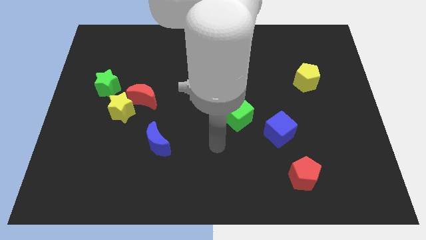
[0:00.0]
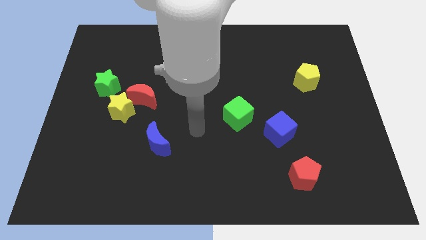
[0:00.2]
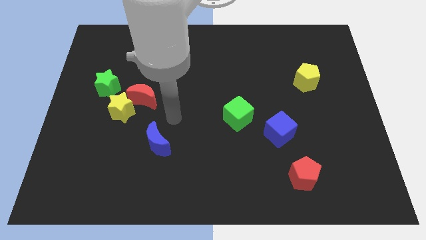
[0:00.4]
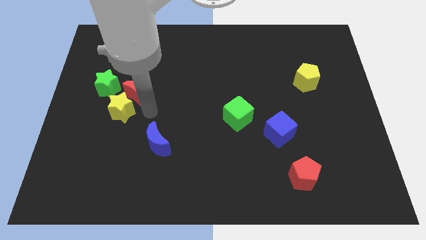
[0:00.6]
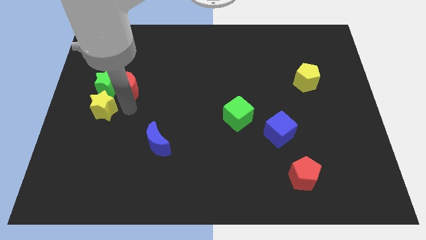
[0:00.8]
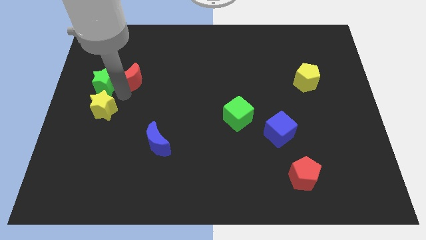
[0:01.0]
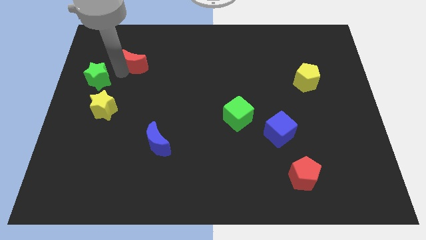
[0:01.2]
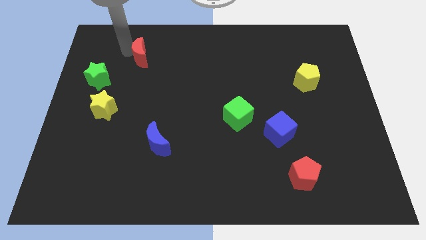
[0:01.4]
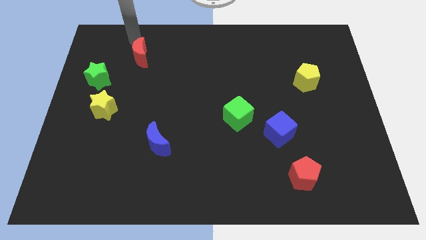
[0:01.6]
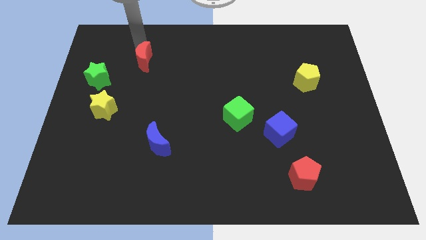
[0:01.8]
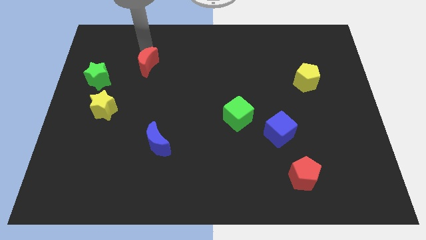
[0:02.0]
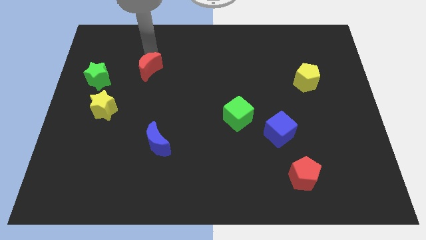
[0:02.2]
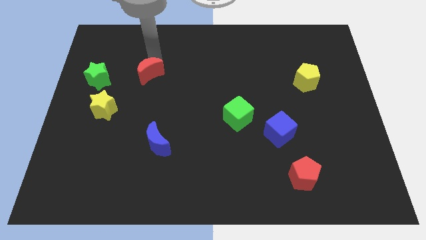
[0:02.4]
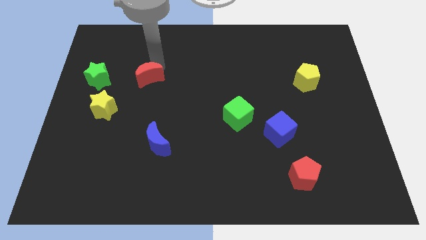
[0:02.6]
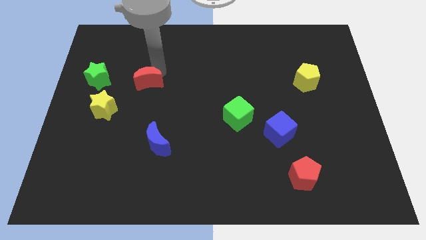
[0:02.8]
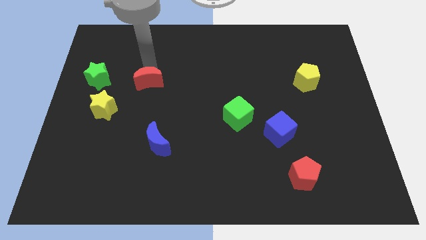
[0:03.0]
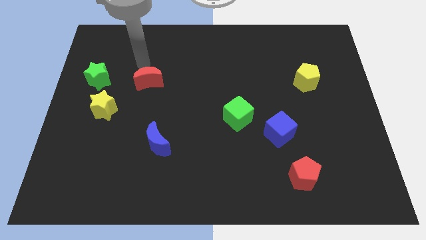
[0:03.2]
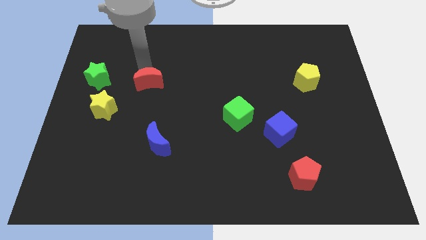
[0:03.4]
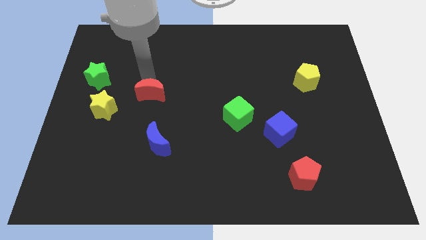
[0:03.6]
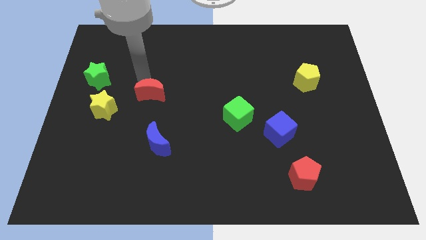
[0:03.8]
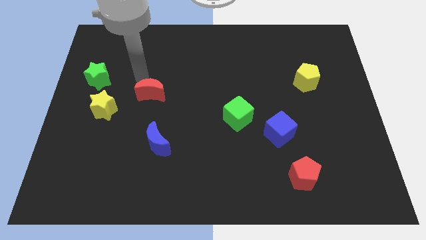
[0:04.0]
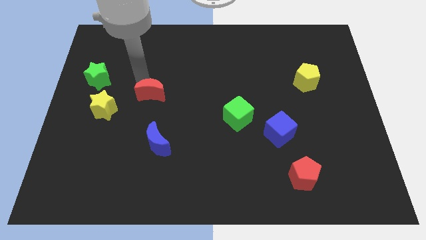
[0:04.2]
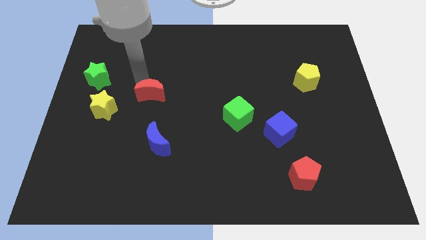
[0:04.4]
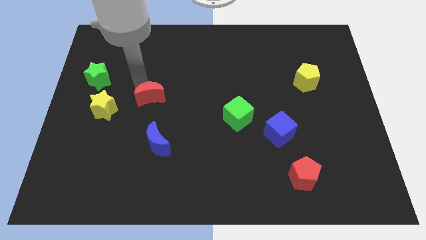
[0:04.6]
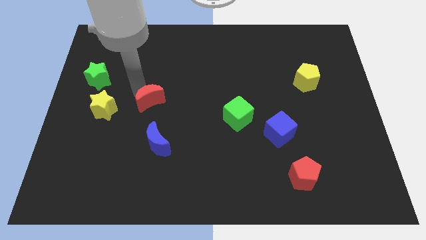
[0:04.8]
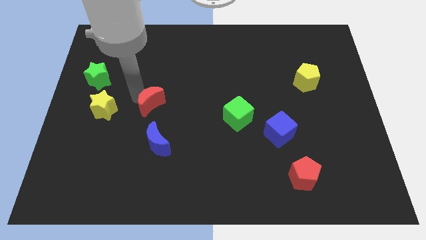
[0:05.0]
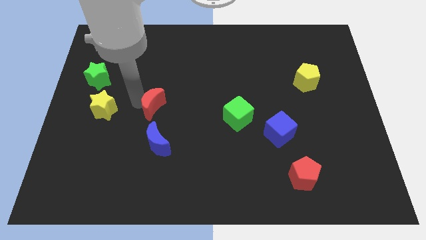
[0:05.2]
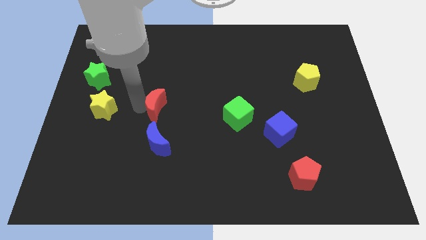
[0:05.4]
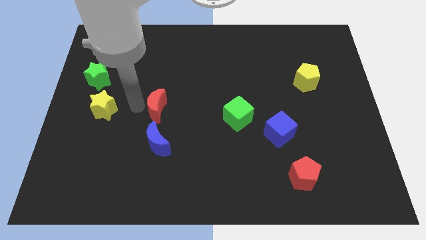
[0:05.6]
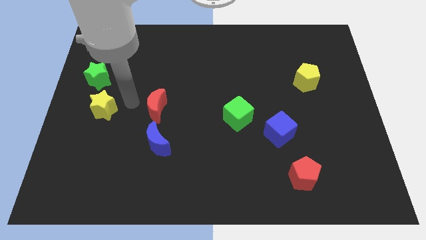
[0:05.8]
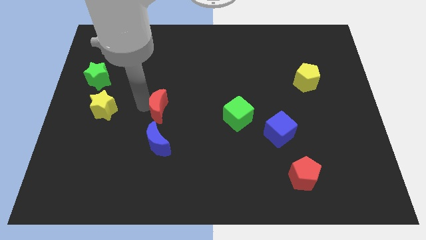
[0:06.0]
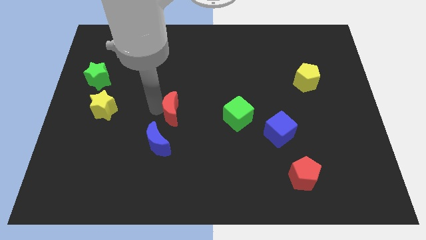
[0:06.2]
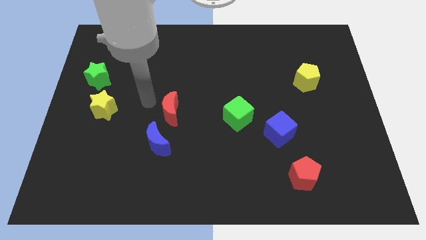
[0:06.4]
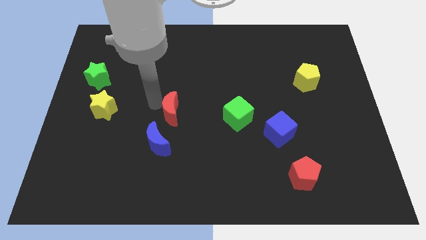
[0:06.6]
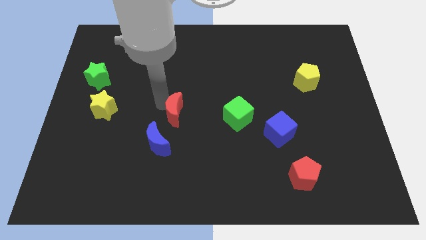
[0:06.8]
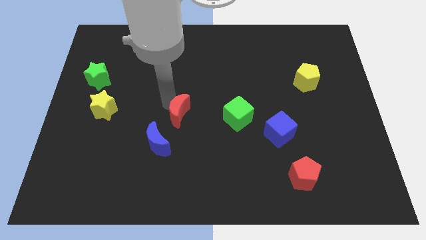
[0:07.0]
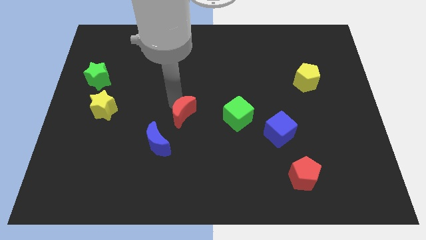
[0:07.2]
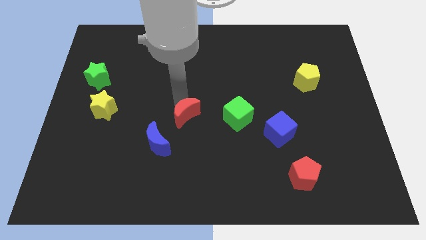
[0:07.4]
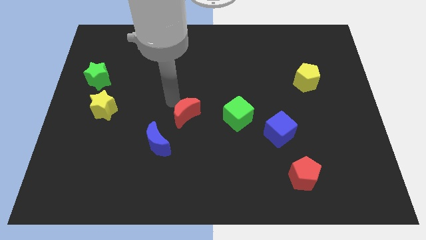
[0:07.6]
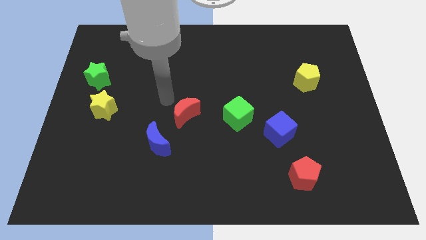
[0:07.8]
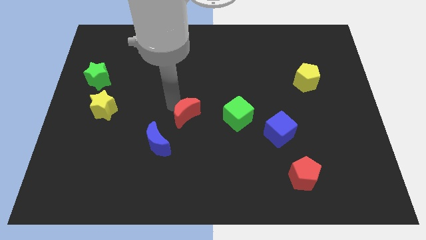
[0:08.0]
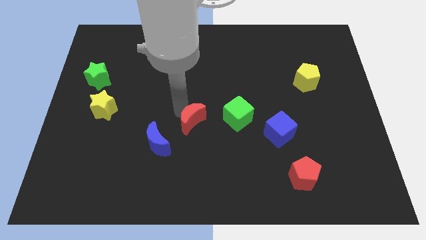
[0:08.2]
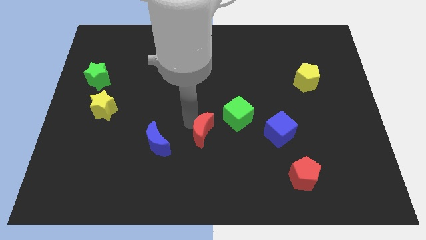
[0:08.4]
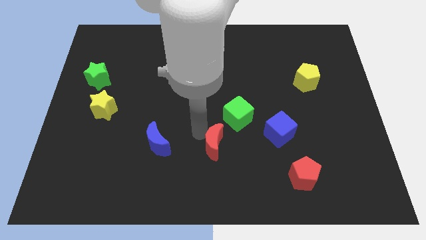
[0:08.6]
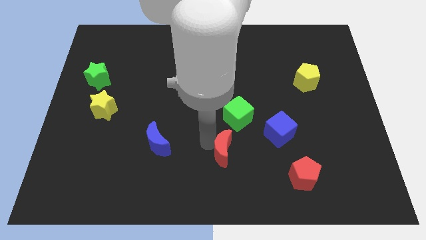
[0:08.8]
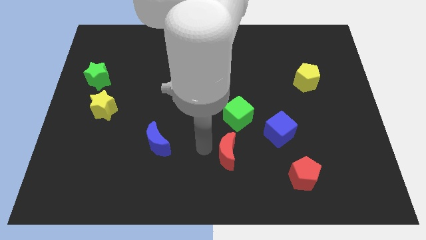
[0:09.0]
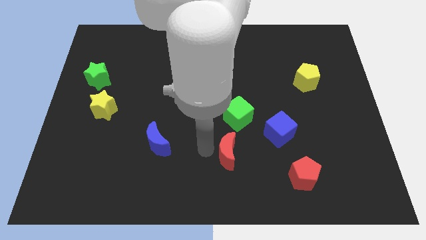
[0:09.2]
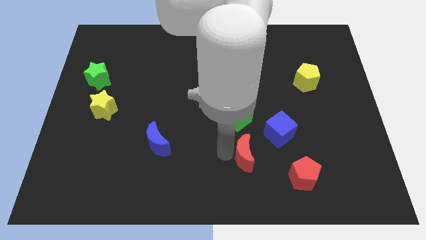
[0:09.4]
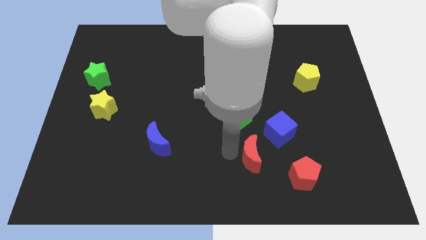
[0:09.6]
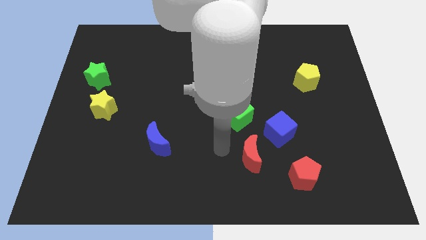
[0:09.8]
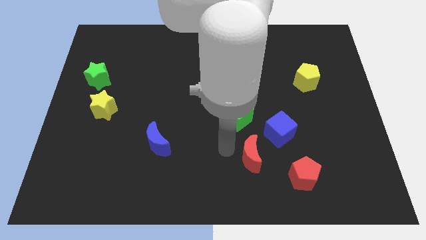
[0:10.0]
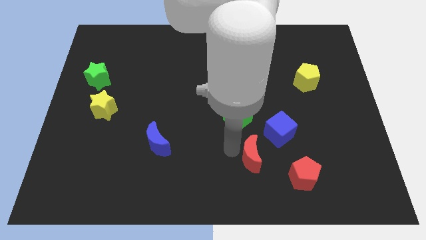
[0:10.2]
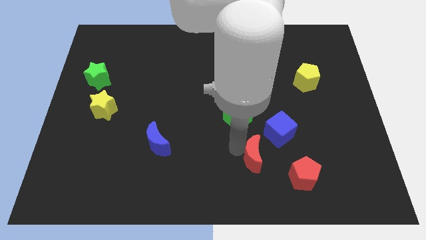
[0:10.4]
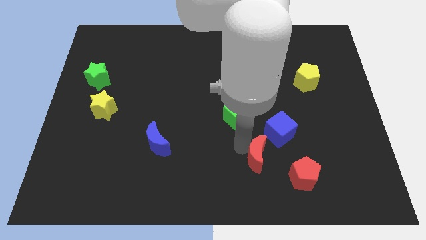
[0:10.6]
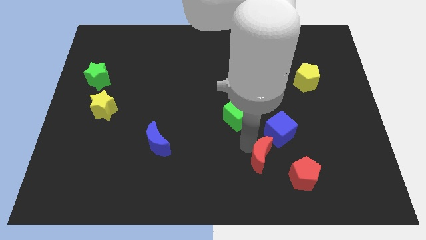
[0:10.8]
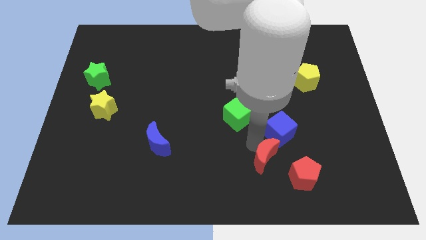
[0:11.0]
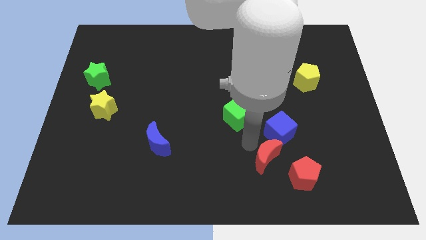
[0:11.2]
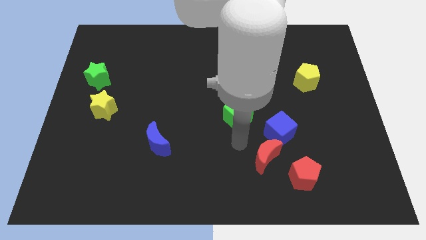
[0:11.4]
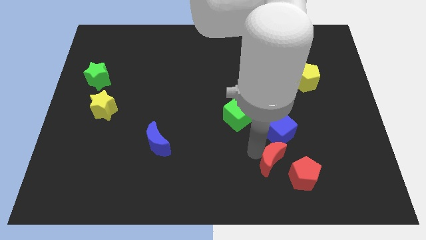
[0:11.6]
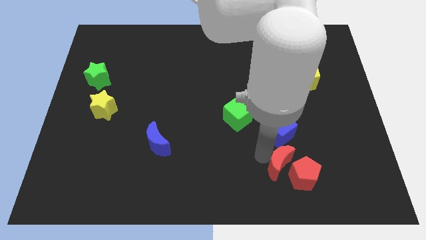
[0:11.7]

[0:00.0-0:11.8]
put the red moon to the red pentagon

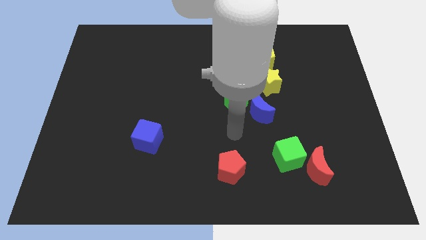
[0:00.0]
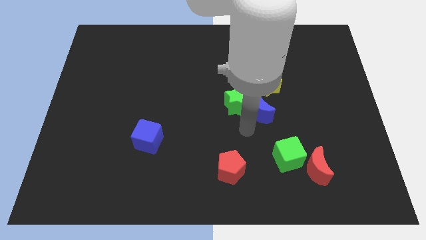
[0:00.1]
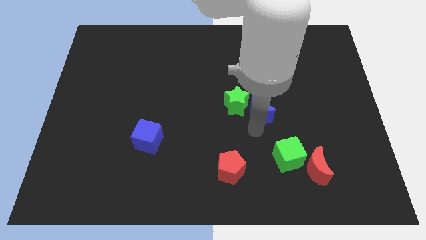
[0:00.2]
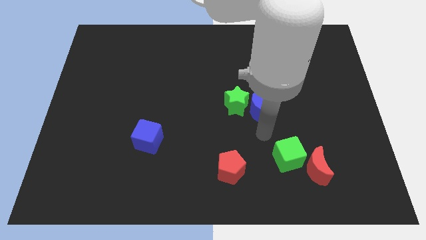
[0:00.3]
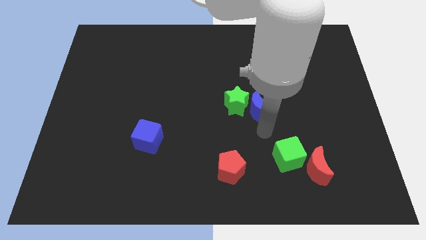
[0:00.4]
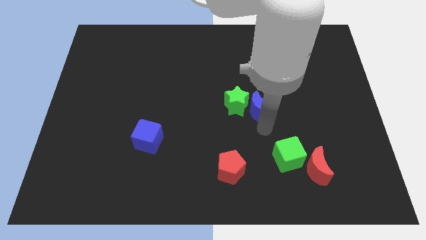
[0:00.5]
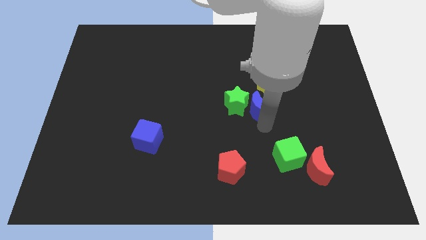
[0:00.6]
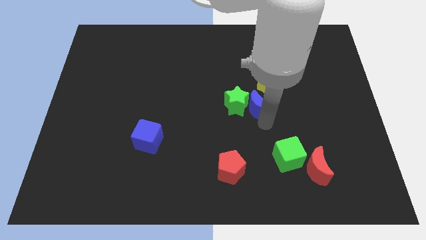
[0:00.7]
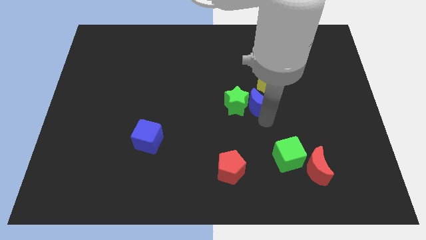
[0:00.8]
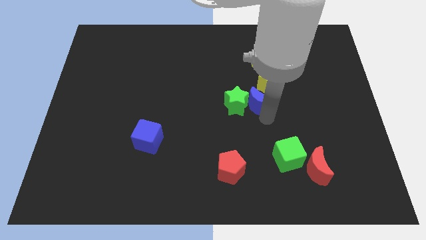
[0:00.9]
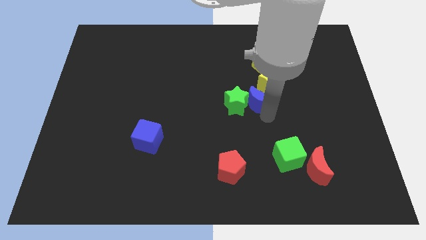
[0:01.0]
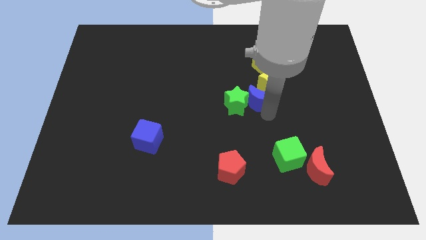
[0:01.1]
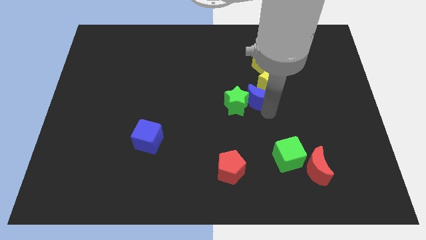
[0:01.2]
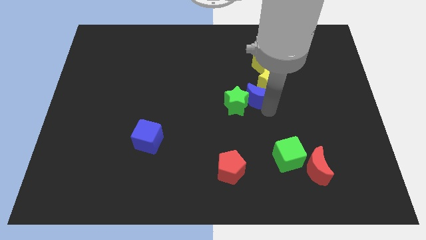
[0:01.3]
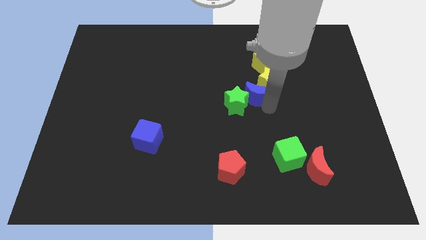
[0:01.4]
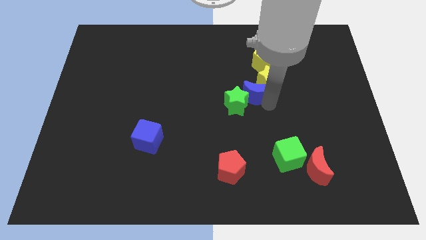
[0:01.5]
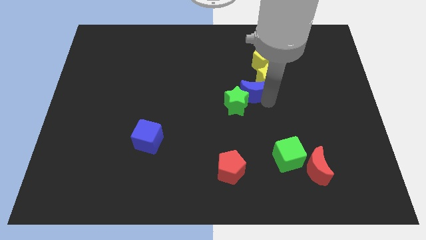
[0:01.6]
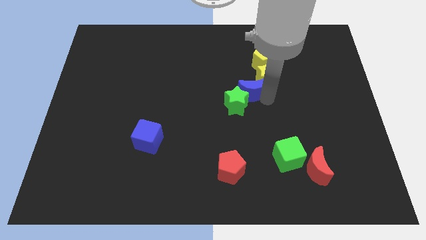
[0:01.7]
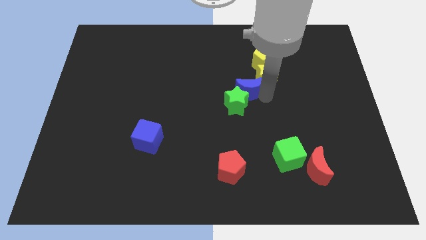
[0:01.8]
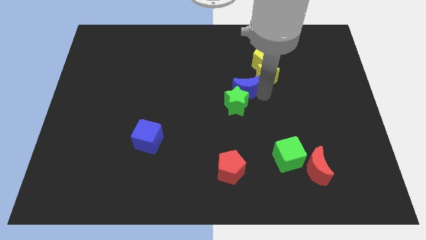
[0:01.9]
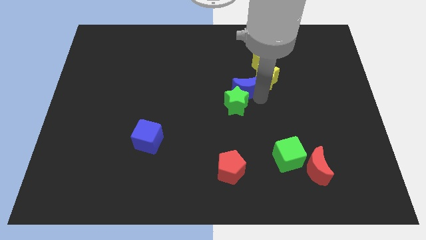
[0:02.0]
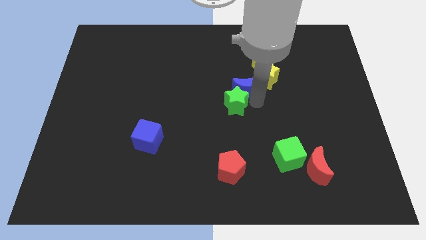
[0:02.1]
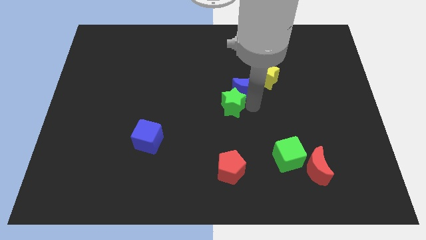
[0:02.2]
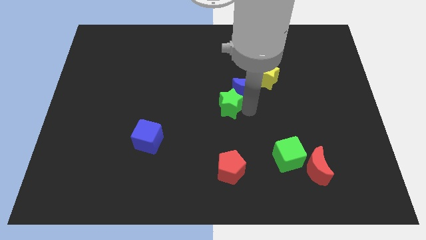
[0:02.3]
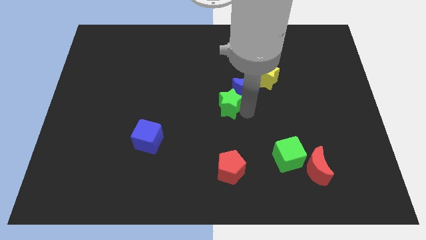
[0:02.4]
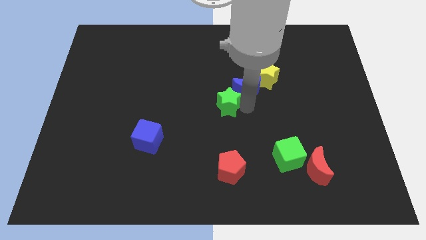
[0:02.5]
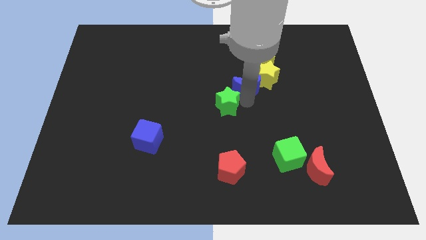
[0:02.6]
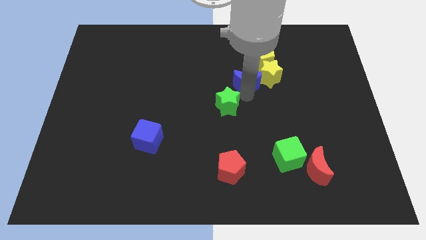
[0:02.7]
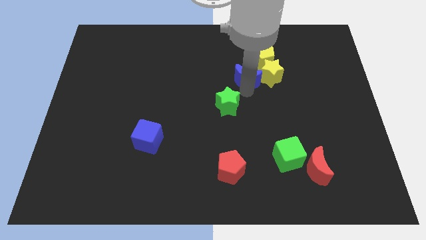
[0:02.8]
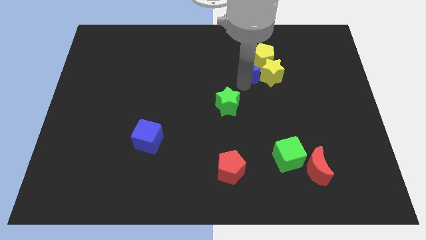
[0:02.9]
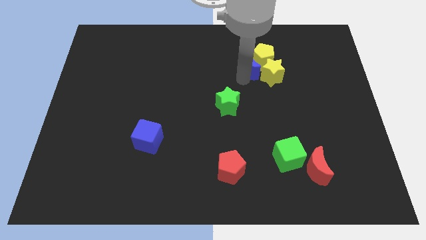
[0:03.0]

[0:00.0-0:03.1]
push the blue moon close to the yellow pentagon
